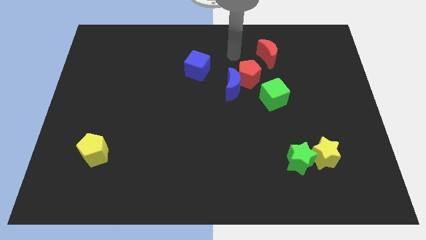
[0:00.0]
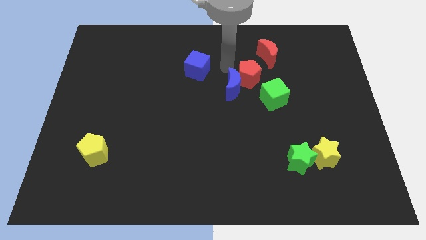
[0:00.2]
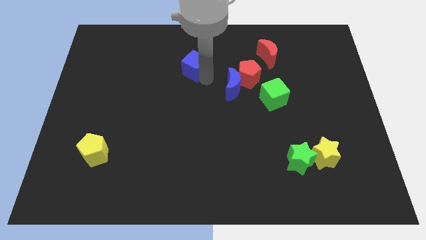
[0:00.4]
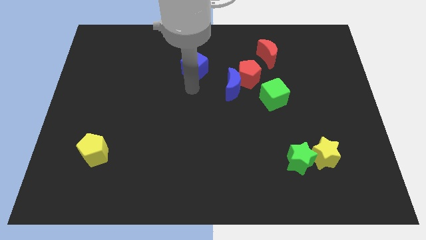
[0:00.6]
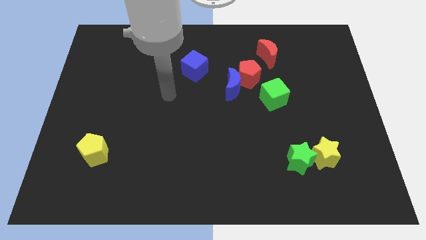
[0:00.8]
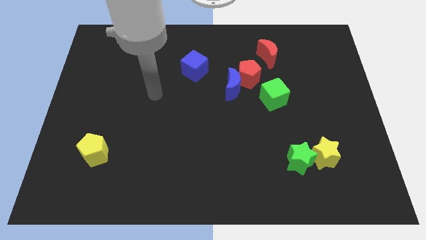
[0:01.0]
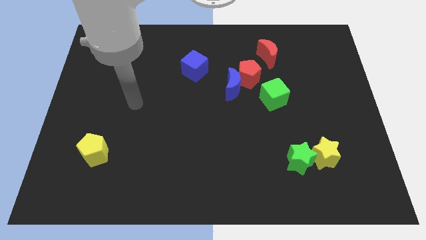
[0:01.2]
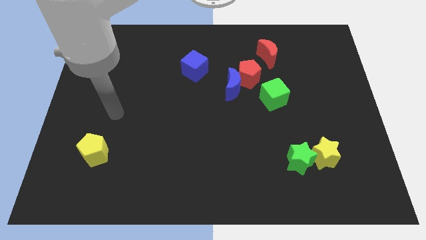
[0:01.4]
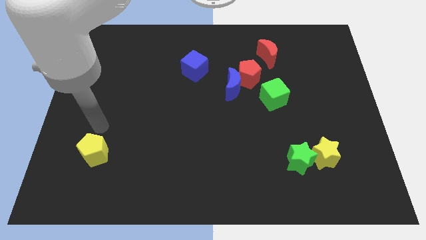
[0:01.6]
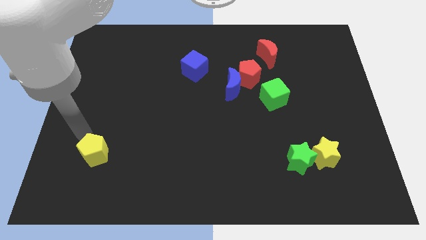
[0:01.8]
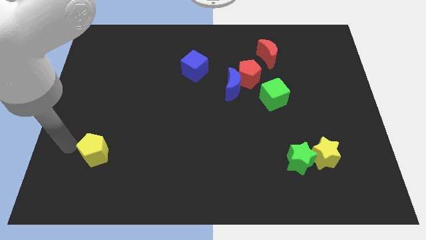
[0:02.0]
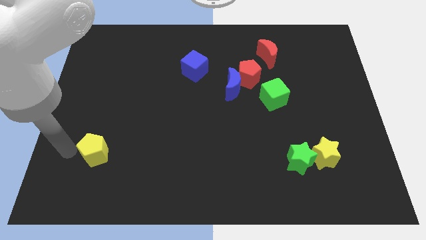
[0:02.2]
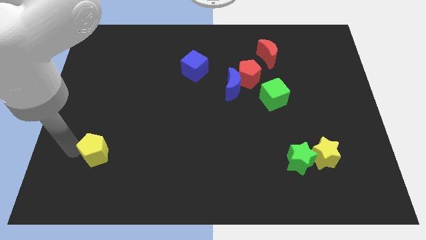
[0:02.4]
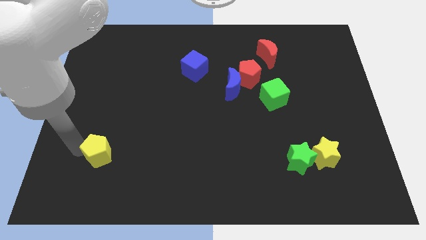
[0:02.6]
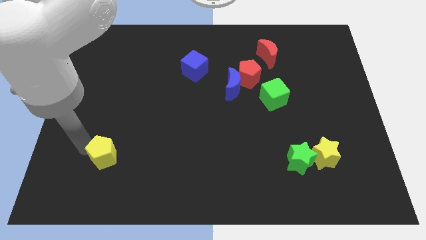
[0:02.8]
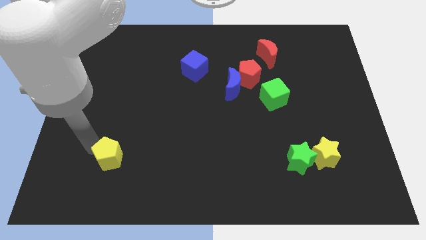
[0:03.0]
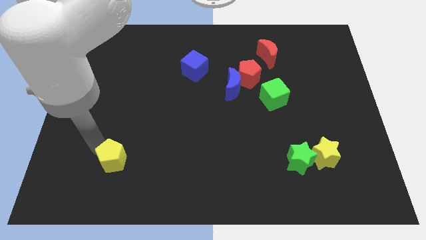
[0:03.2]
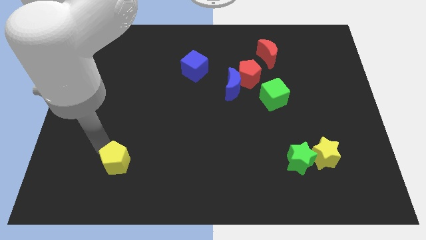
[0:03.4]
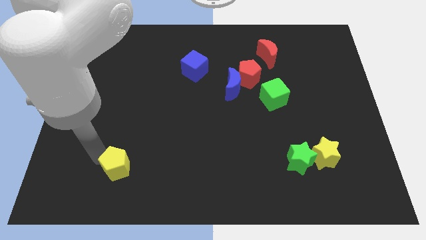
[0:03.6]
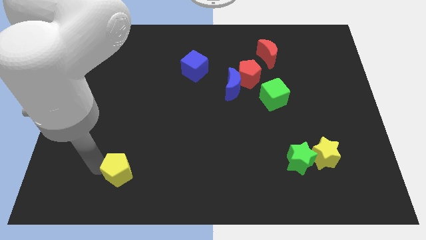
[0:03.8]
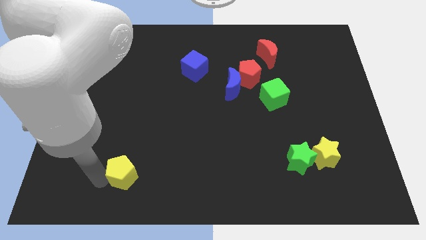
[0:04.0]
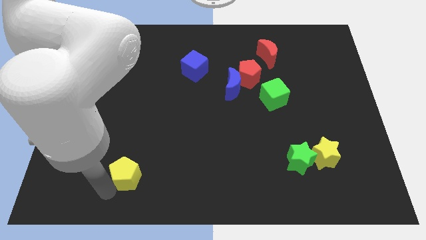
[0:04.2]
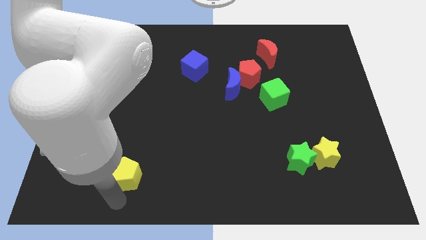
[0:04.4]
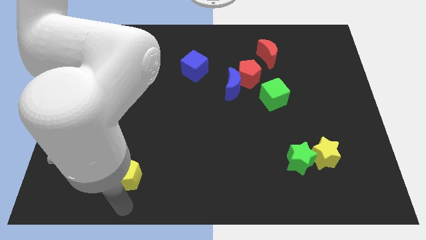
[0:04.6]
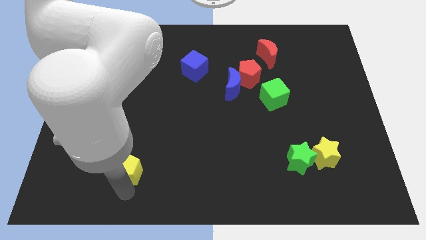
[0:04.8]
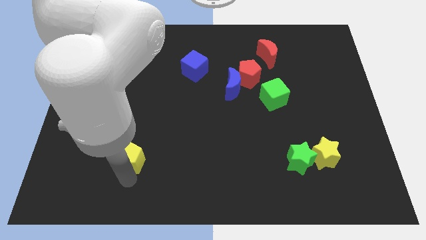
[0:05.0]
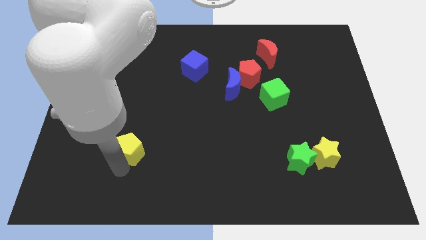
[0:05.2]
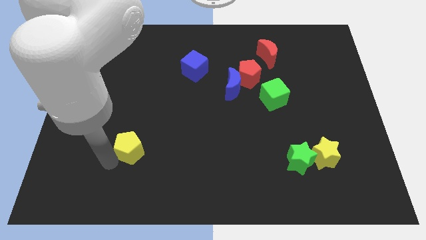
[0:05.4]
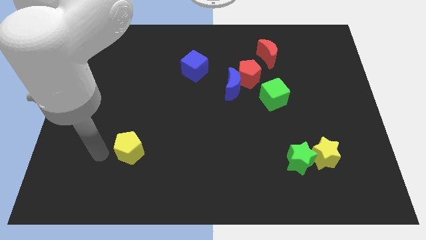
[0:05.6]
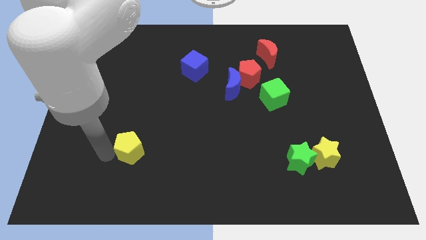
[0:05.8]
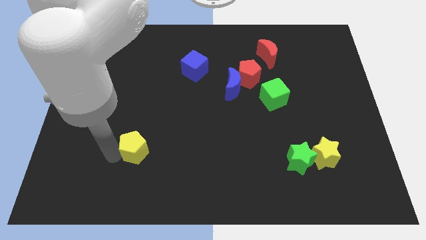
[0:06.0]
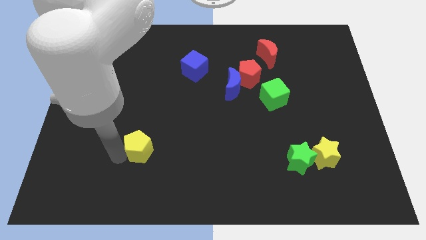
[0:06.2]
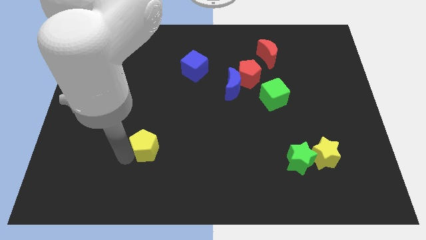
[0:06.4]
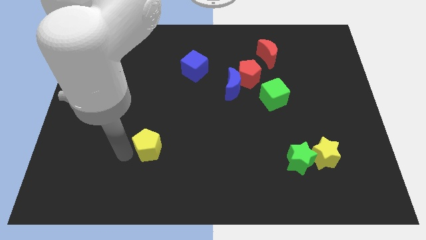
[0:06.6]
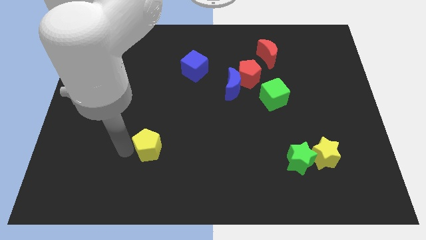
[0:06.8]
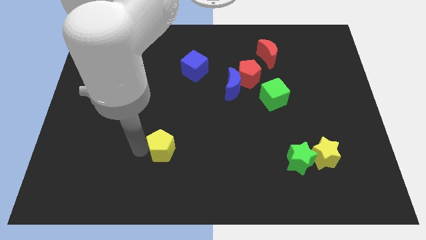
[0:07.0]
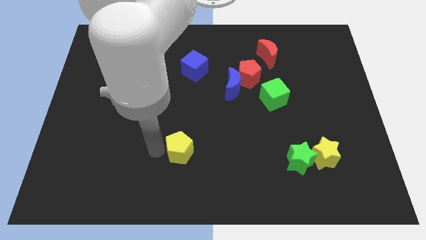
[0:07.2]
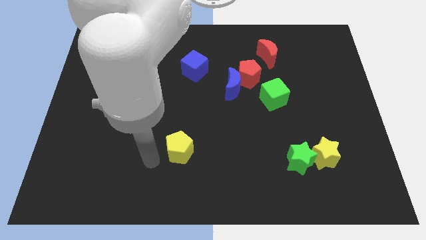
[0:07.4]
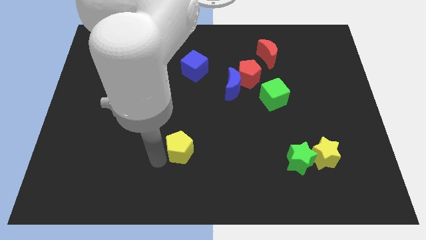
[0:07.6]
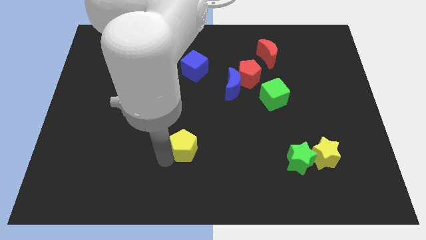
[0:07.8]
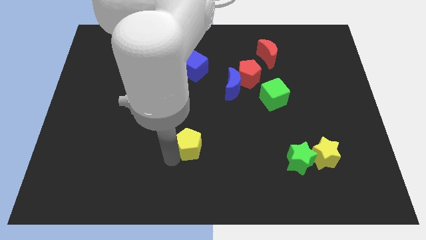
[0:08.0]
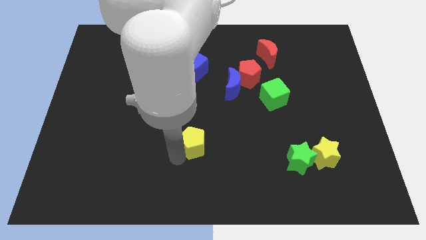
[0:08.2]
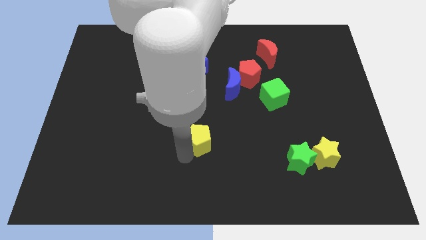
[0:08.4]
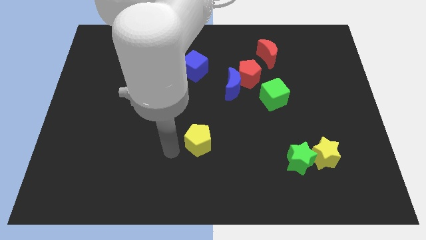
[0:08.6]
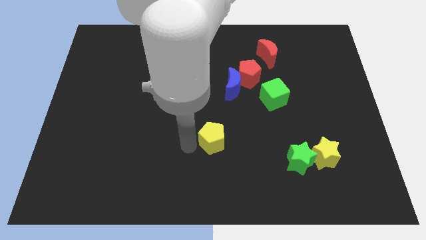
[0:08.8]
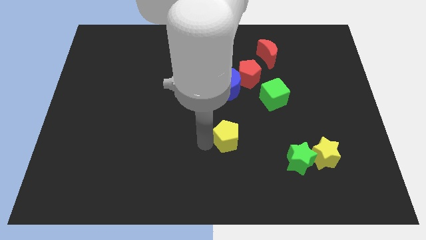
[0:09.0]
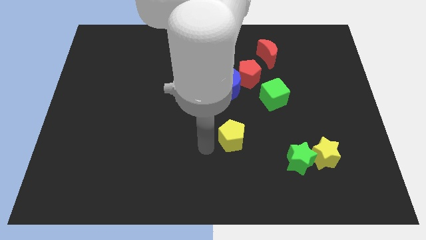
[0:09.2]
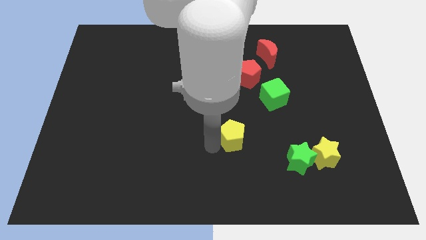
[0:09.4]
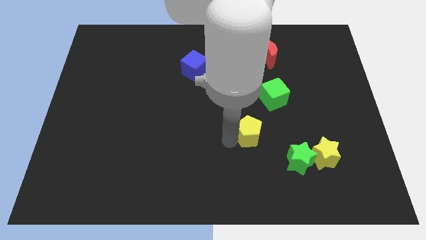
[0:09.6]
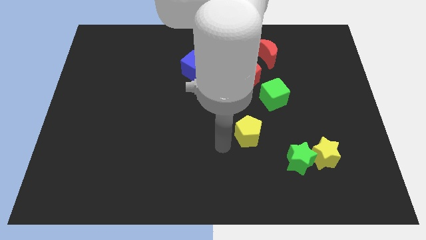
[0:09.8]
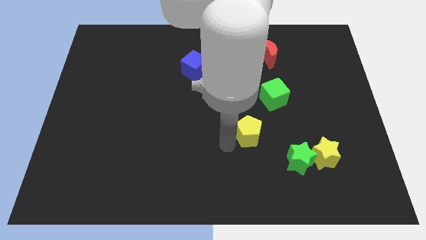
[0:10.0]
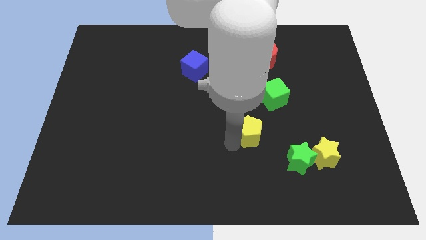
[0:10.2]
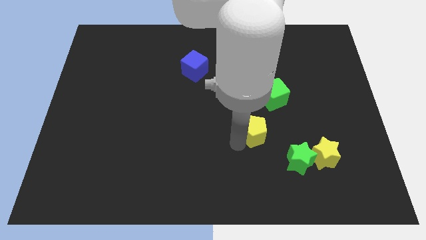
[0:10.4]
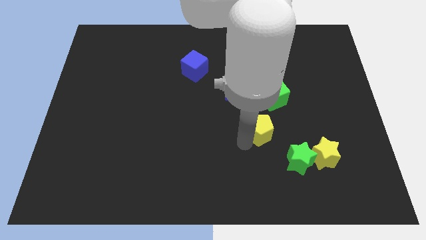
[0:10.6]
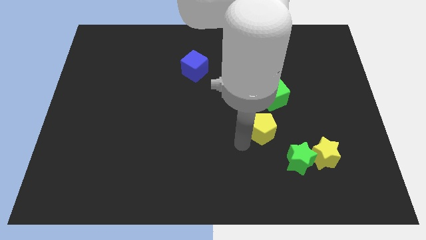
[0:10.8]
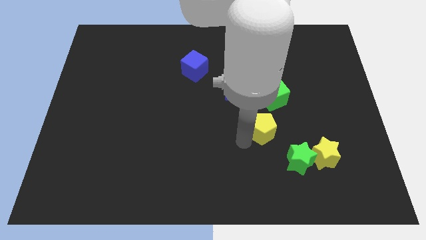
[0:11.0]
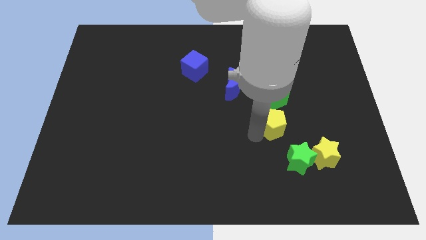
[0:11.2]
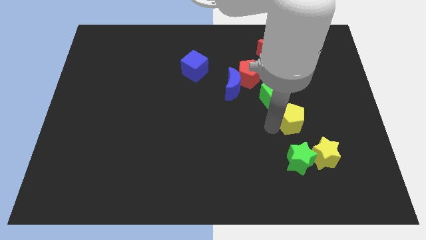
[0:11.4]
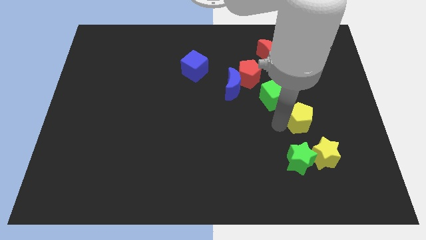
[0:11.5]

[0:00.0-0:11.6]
move the yellow pentagon to the top of the yellow star
